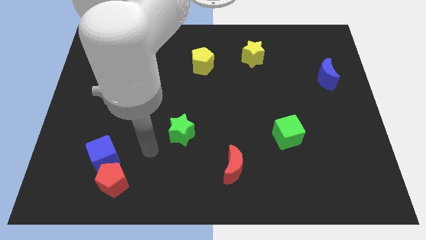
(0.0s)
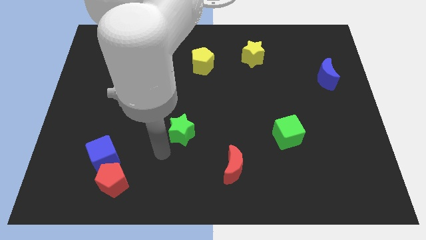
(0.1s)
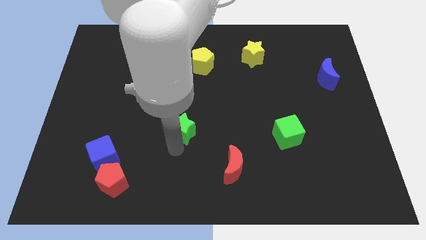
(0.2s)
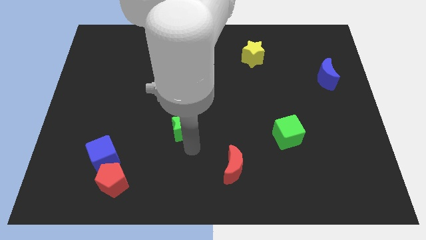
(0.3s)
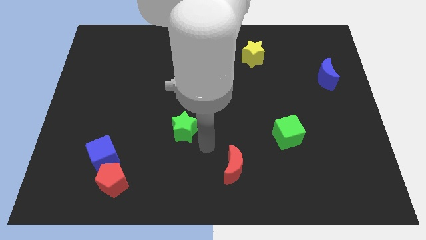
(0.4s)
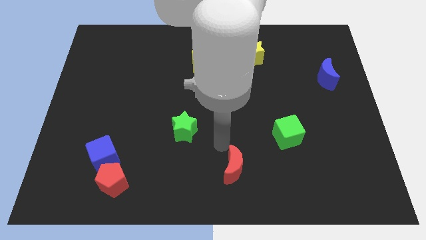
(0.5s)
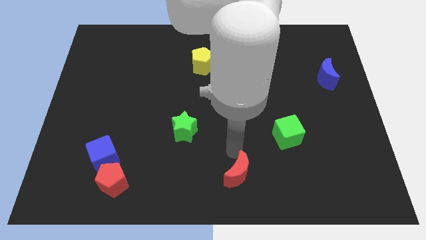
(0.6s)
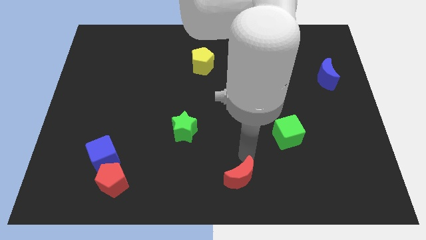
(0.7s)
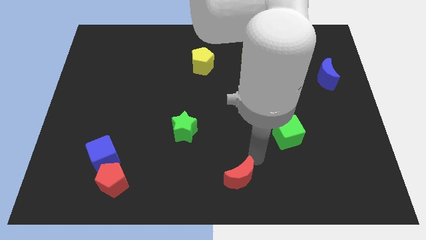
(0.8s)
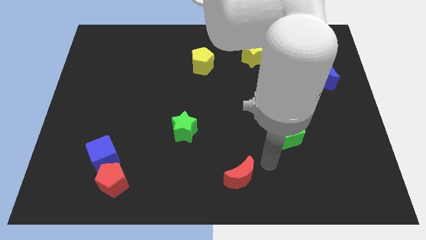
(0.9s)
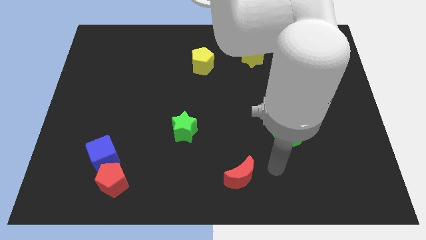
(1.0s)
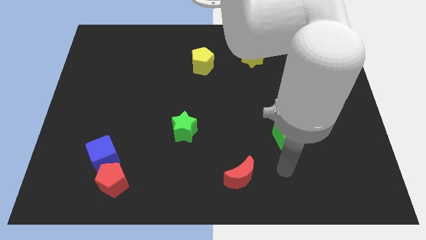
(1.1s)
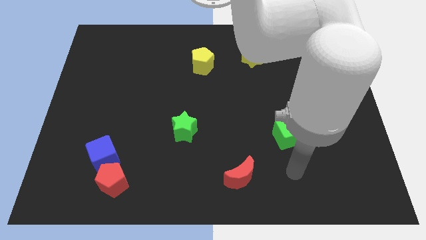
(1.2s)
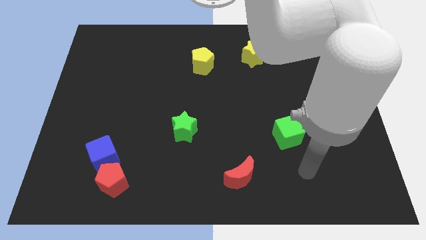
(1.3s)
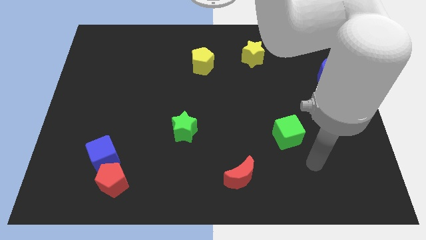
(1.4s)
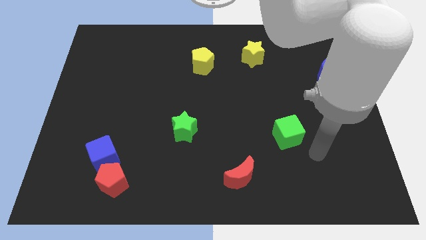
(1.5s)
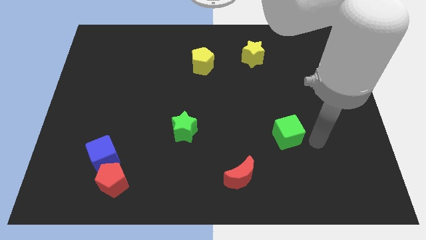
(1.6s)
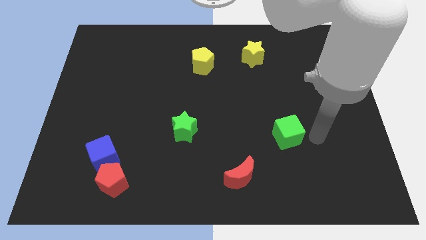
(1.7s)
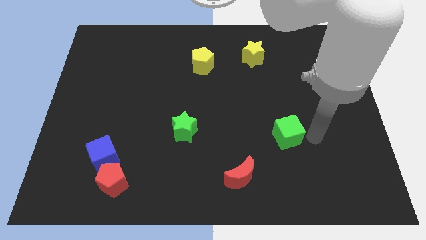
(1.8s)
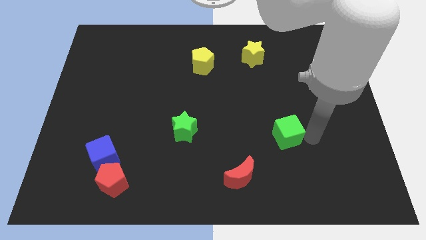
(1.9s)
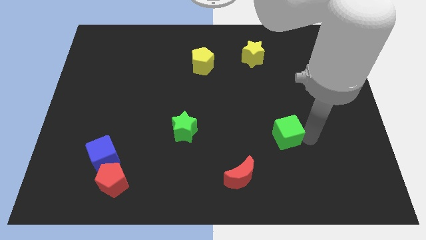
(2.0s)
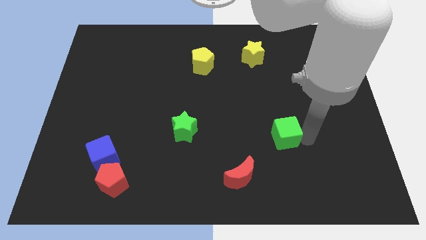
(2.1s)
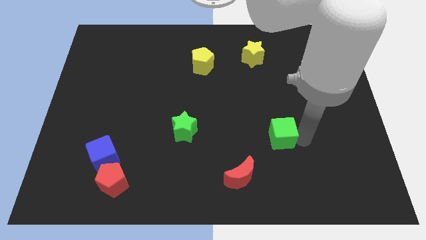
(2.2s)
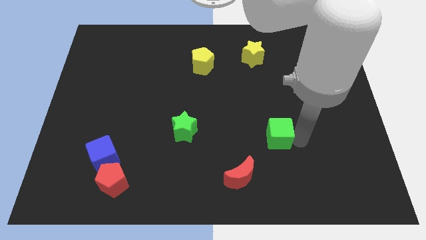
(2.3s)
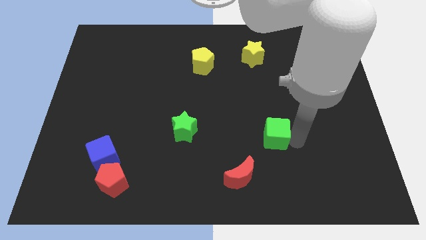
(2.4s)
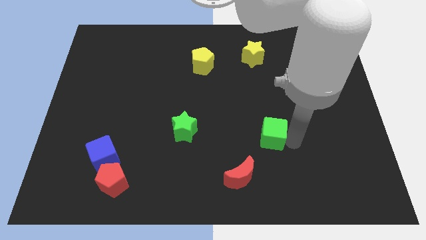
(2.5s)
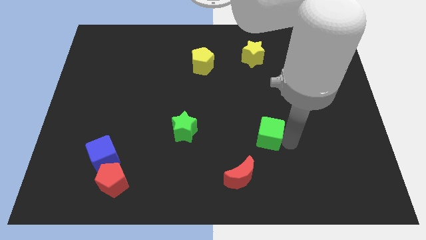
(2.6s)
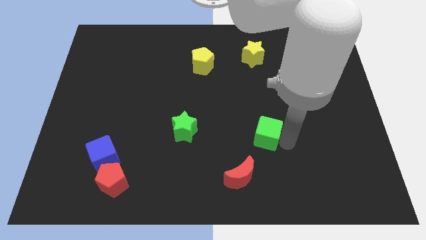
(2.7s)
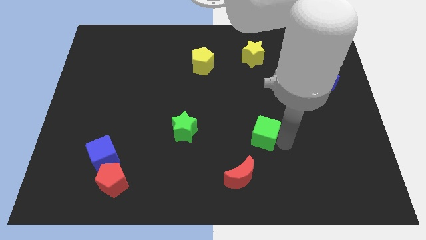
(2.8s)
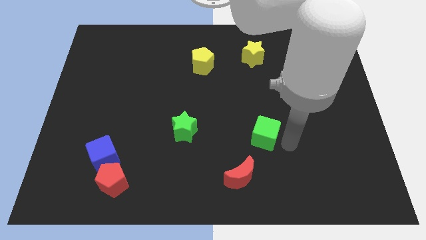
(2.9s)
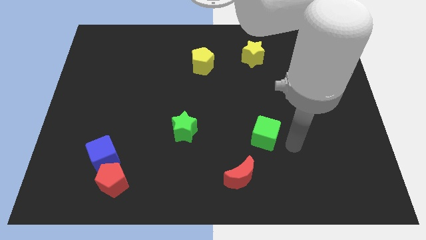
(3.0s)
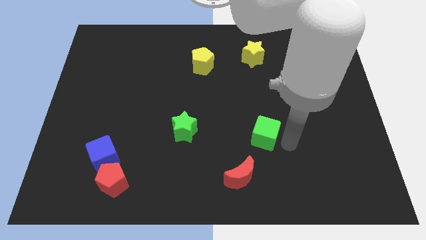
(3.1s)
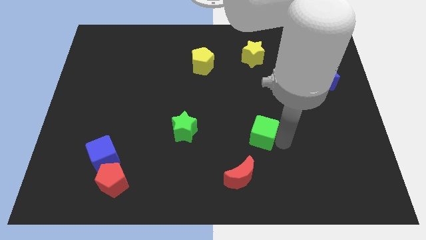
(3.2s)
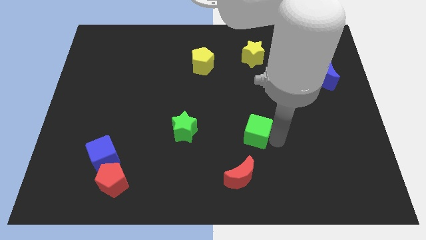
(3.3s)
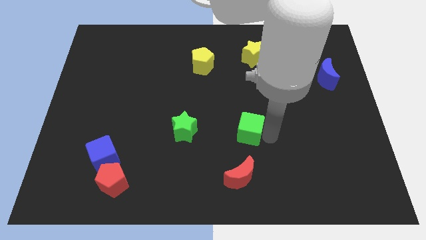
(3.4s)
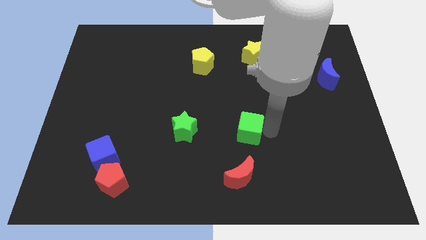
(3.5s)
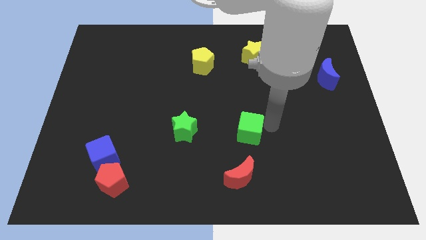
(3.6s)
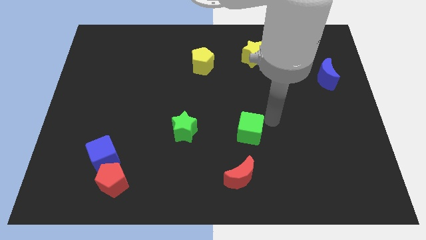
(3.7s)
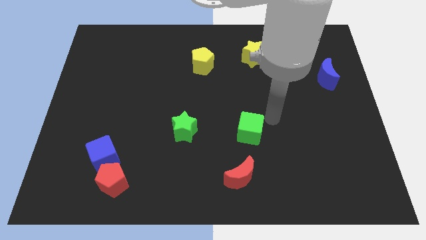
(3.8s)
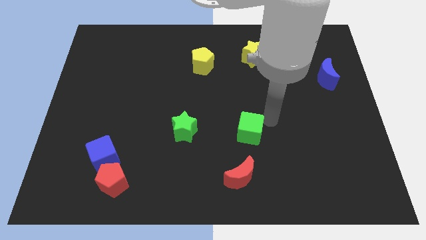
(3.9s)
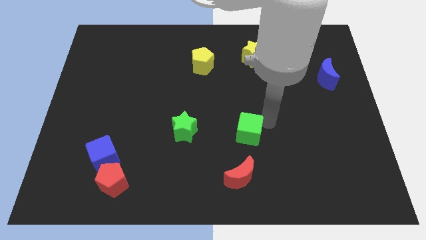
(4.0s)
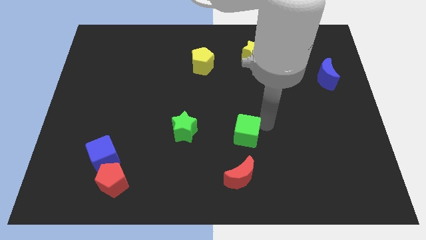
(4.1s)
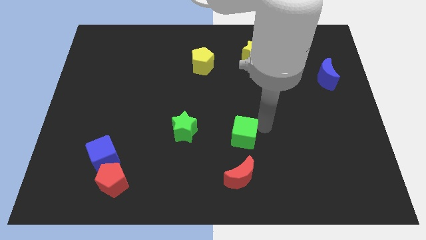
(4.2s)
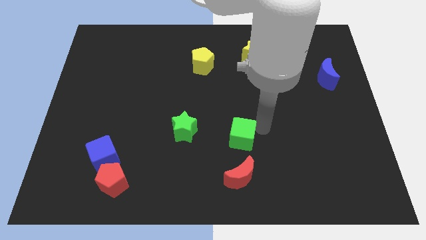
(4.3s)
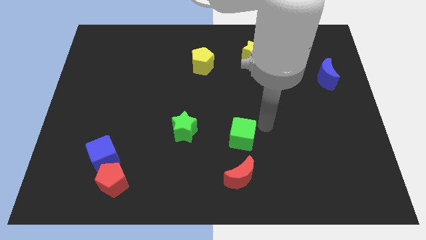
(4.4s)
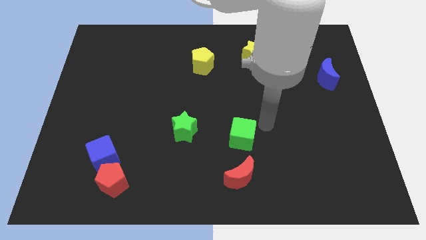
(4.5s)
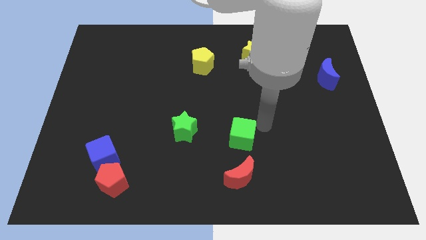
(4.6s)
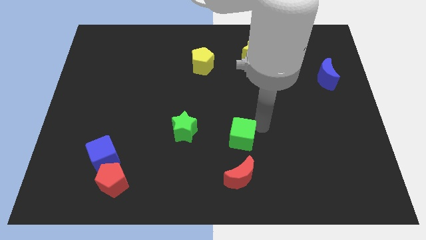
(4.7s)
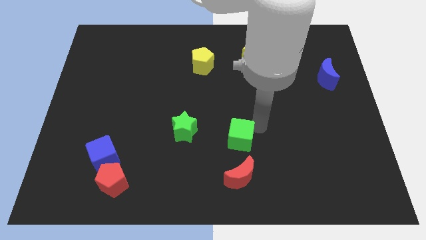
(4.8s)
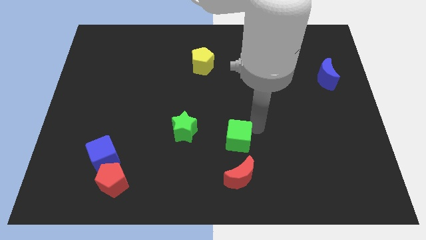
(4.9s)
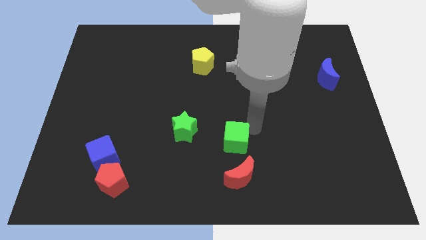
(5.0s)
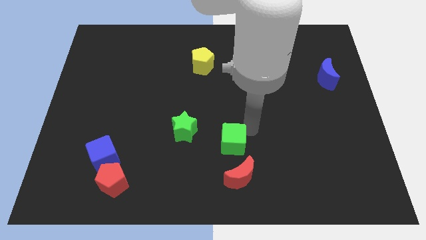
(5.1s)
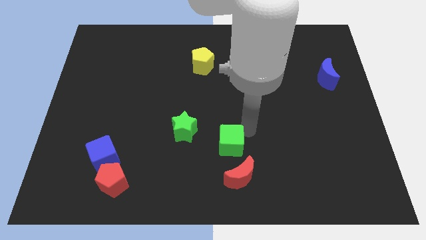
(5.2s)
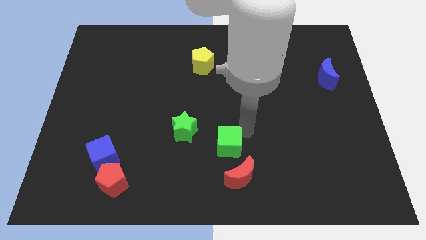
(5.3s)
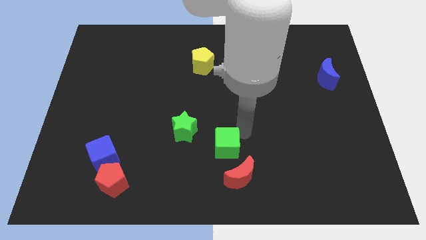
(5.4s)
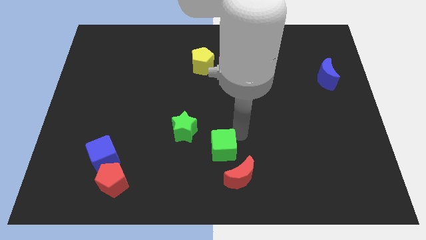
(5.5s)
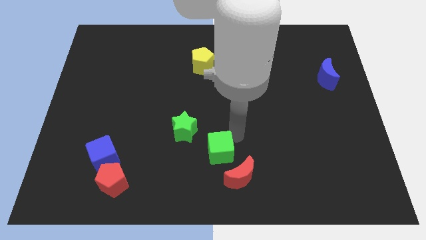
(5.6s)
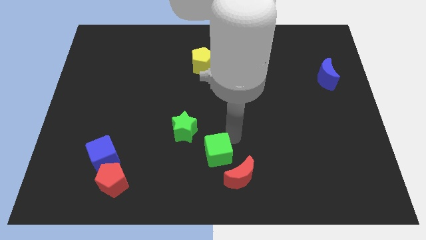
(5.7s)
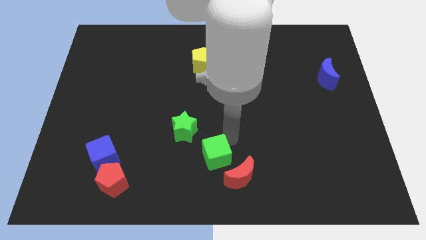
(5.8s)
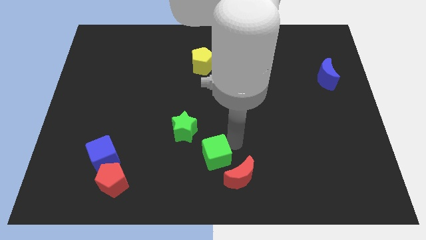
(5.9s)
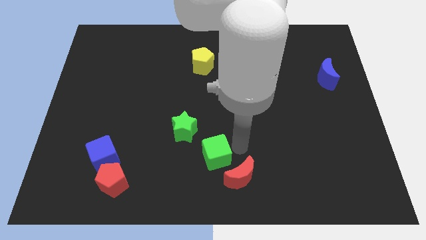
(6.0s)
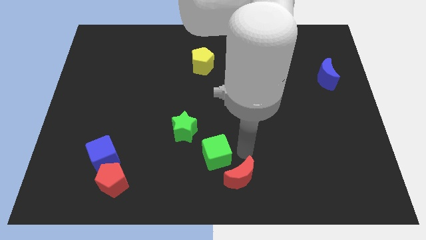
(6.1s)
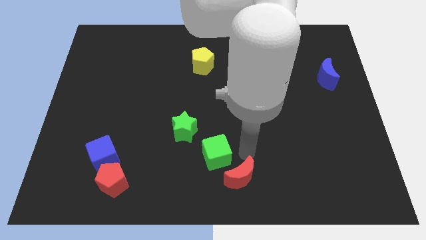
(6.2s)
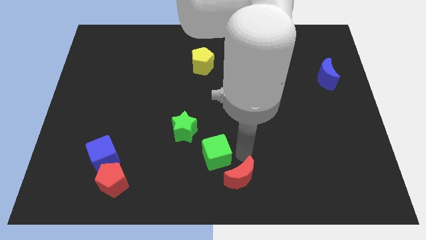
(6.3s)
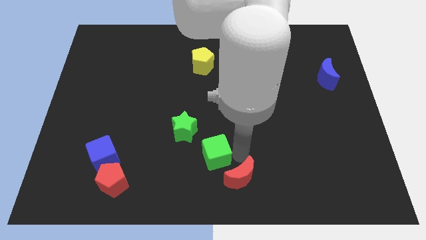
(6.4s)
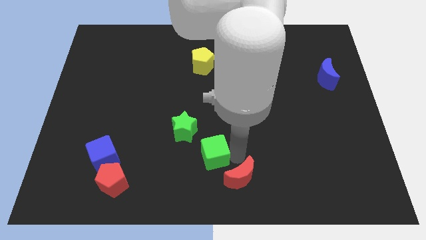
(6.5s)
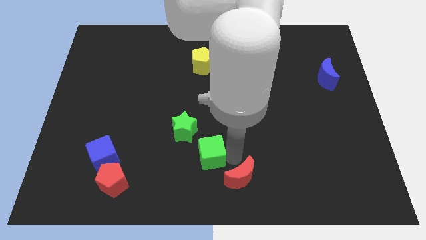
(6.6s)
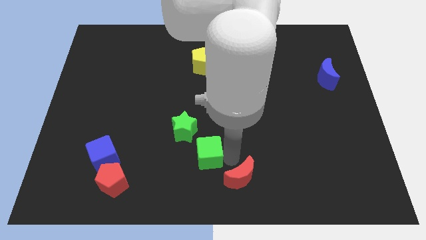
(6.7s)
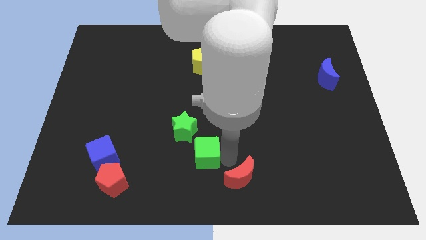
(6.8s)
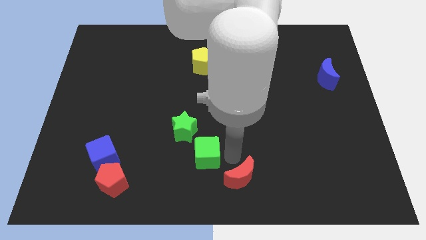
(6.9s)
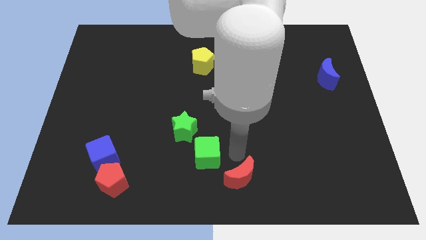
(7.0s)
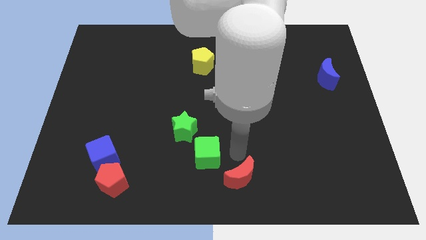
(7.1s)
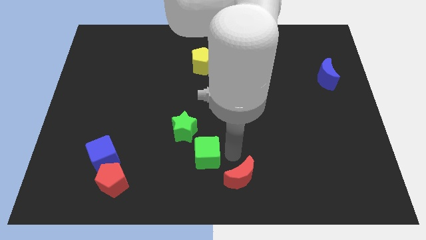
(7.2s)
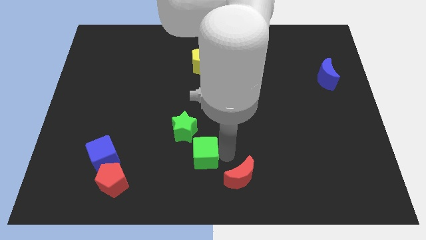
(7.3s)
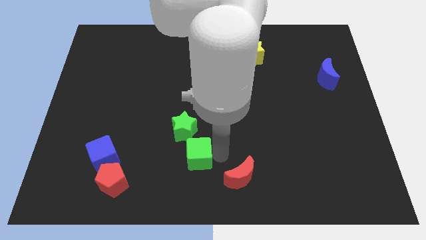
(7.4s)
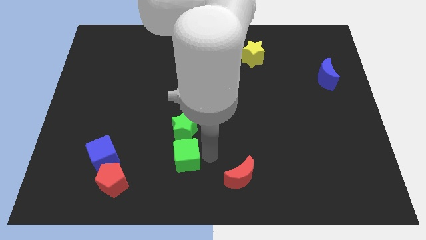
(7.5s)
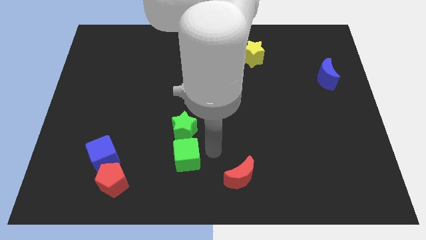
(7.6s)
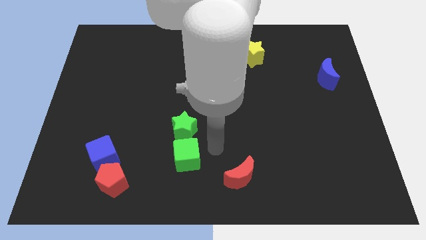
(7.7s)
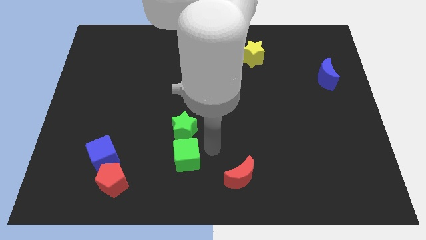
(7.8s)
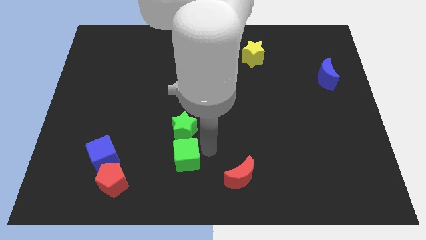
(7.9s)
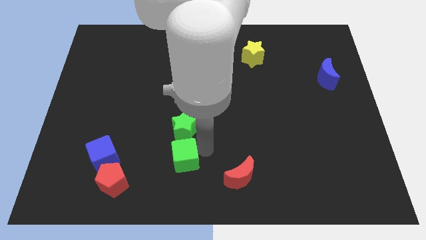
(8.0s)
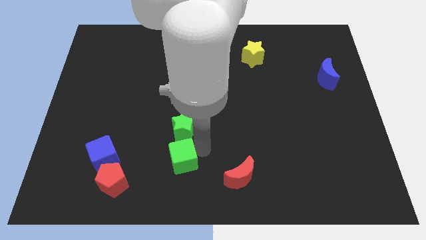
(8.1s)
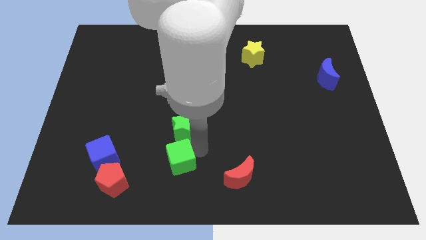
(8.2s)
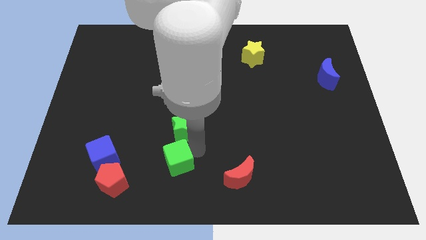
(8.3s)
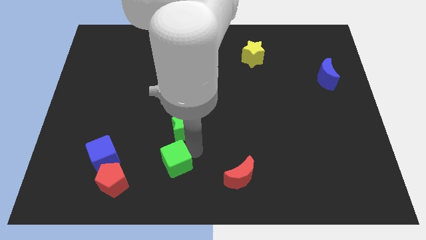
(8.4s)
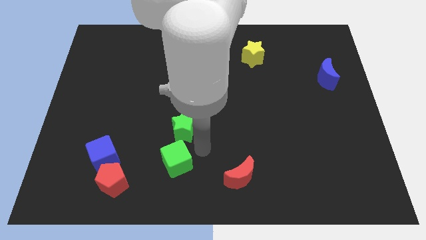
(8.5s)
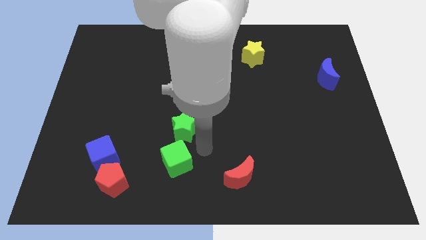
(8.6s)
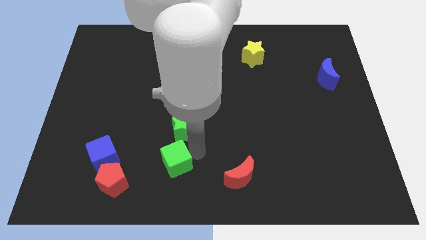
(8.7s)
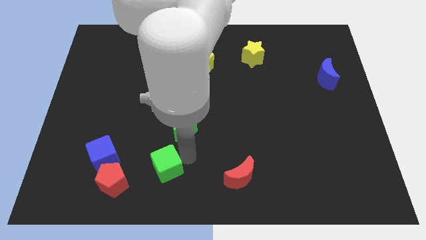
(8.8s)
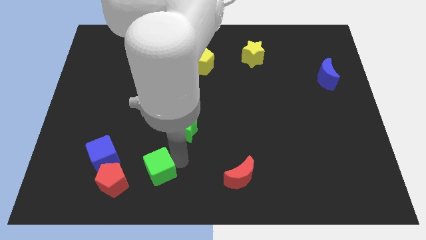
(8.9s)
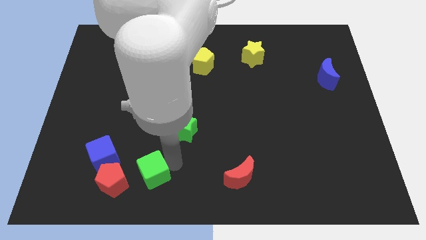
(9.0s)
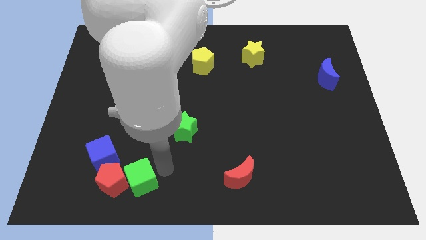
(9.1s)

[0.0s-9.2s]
put the green cube towards the red pentagon
